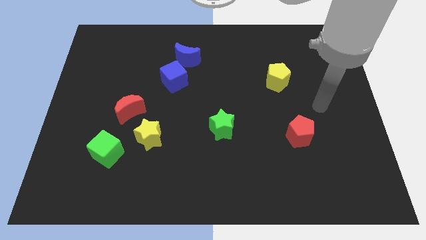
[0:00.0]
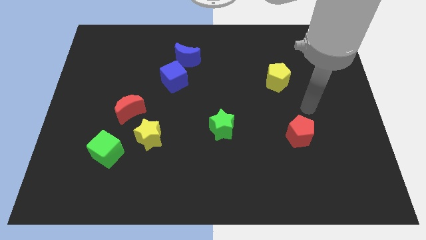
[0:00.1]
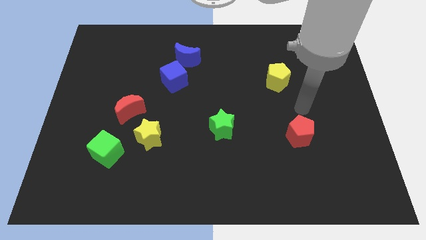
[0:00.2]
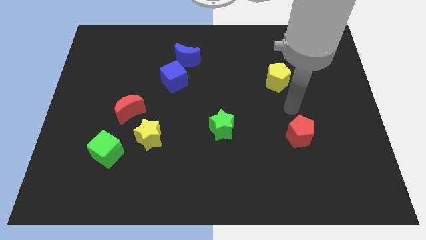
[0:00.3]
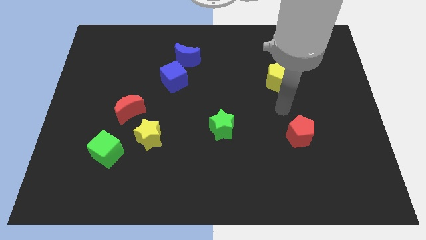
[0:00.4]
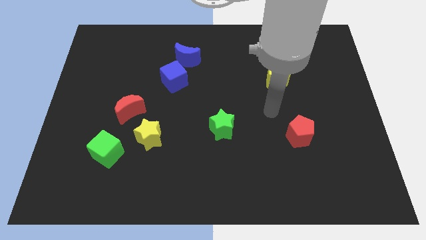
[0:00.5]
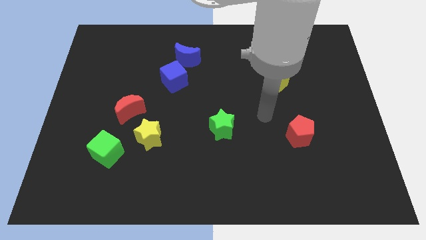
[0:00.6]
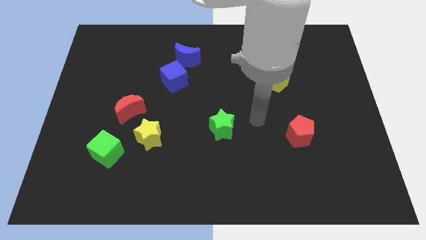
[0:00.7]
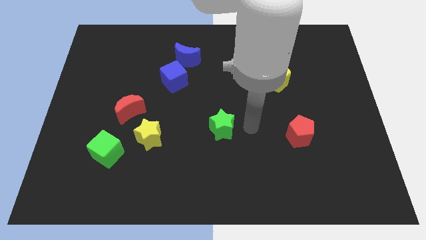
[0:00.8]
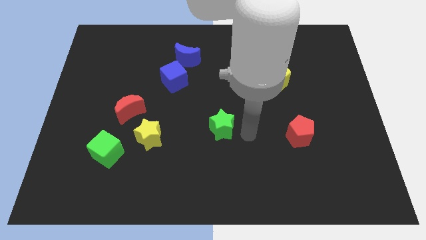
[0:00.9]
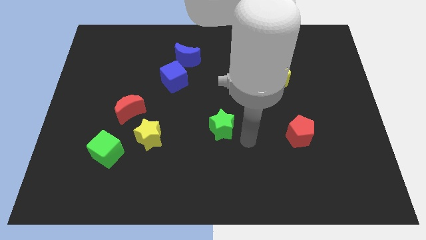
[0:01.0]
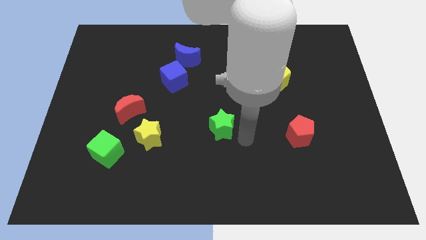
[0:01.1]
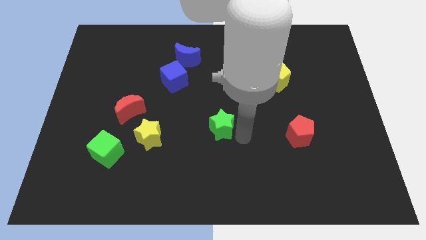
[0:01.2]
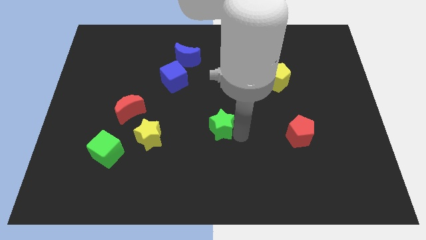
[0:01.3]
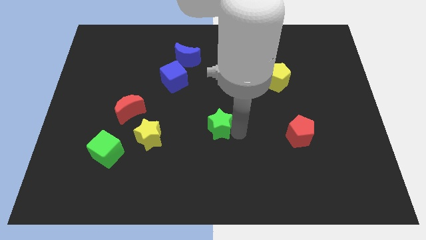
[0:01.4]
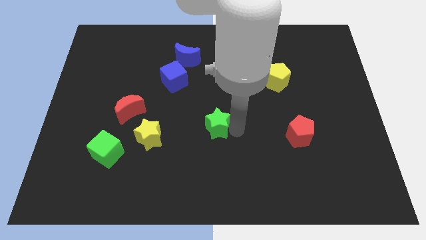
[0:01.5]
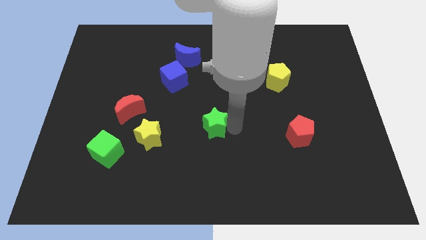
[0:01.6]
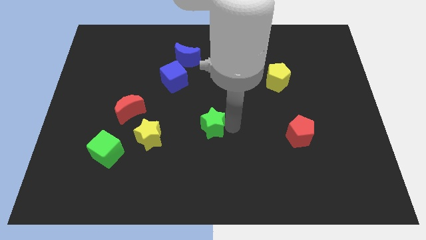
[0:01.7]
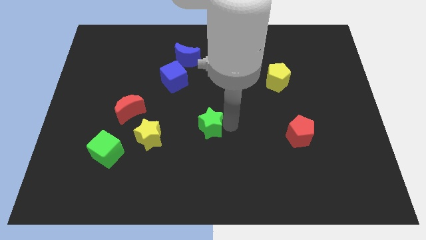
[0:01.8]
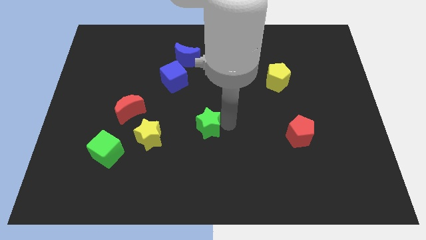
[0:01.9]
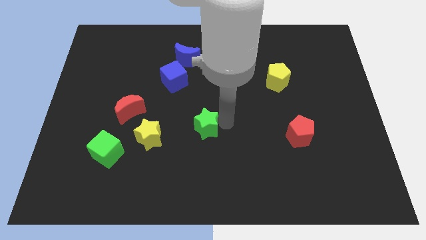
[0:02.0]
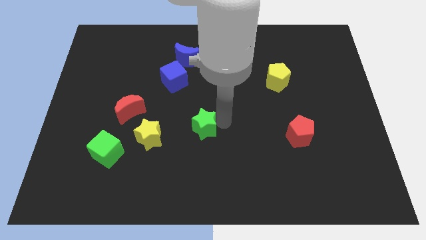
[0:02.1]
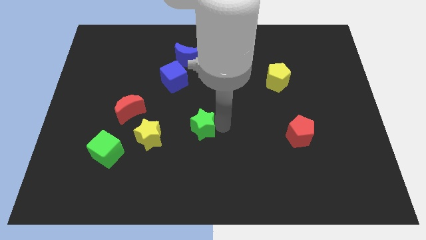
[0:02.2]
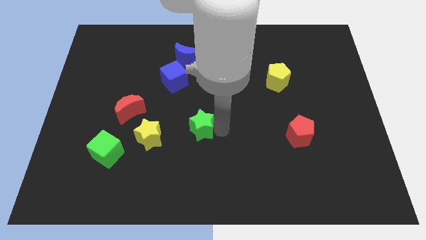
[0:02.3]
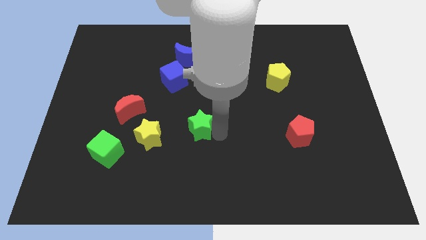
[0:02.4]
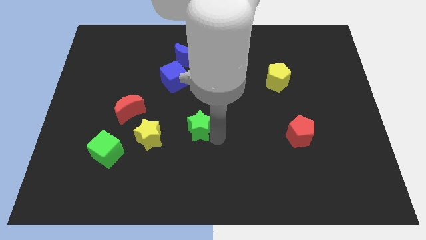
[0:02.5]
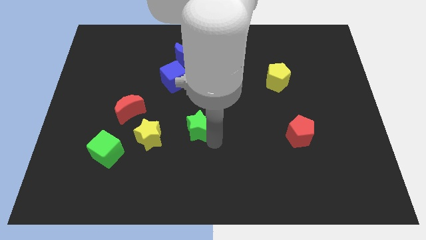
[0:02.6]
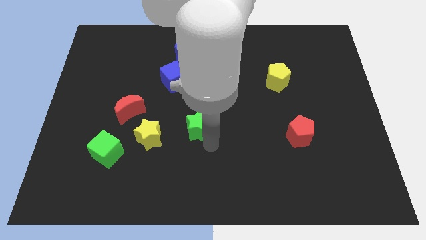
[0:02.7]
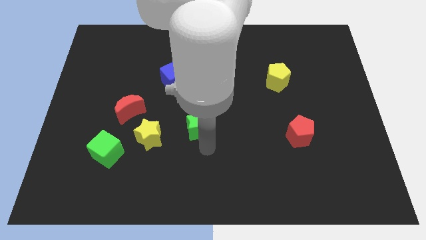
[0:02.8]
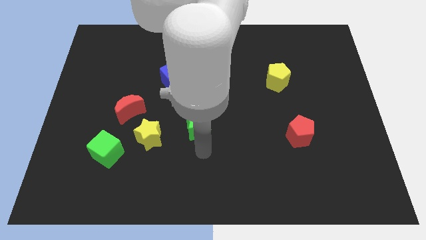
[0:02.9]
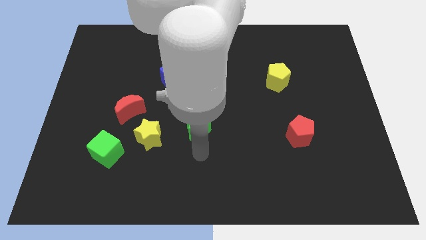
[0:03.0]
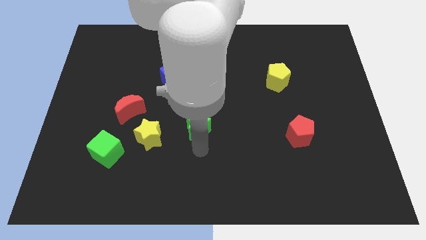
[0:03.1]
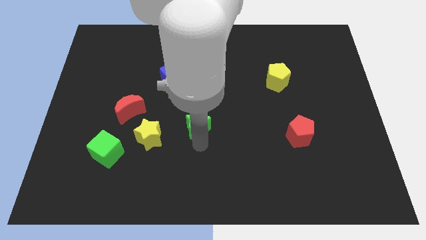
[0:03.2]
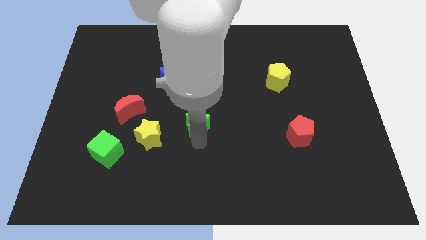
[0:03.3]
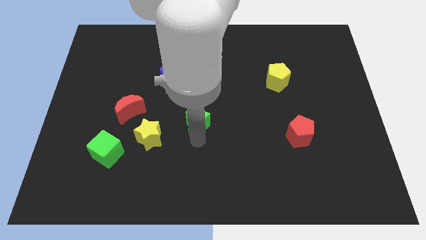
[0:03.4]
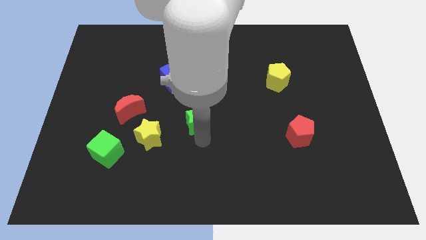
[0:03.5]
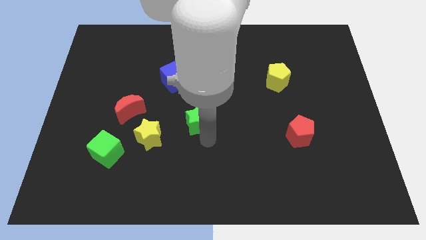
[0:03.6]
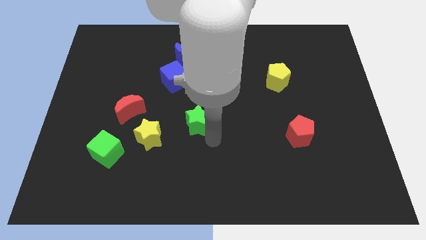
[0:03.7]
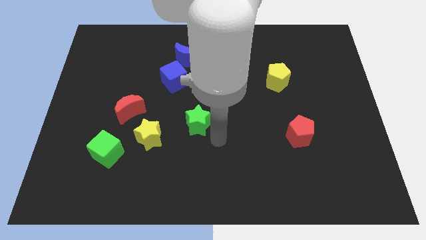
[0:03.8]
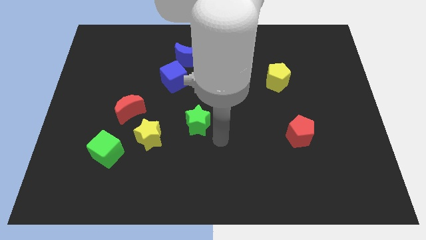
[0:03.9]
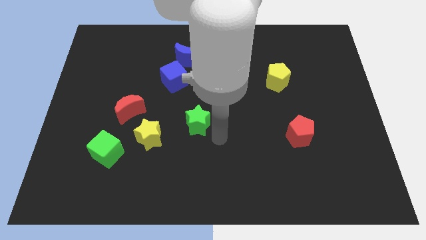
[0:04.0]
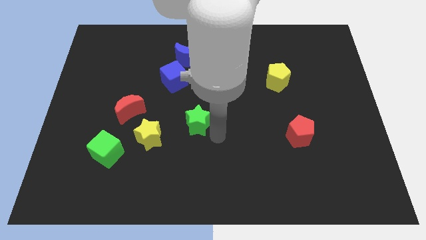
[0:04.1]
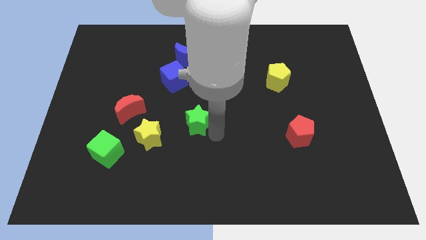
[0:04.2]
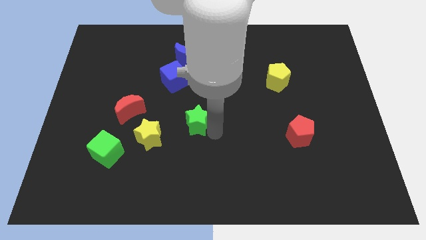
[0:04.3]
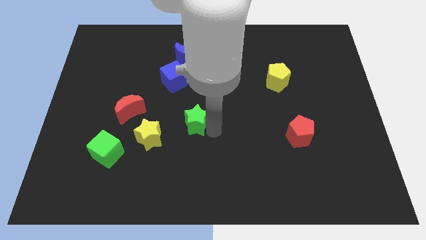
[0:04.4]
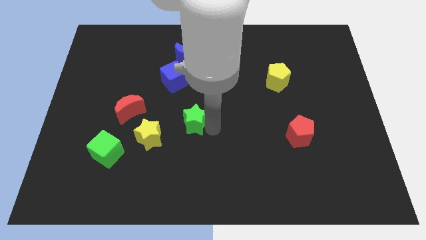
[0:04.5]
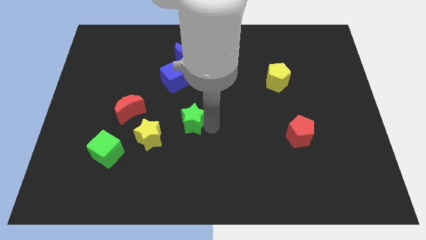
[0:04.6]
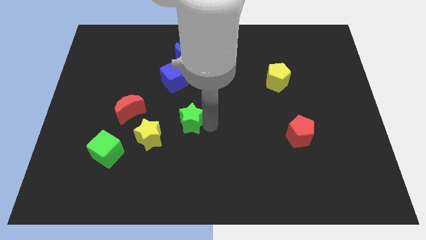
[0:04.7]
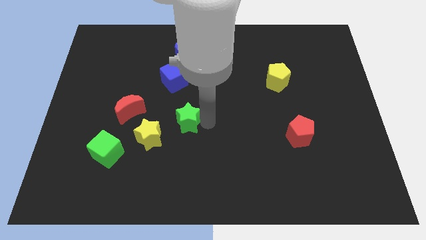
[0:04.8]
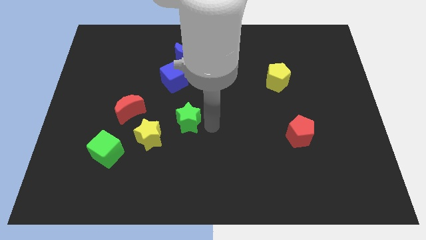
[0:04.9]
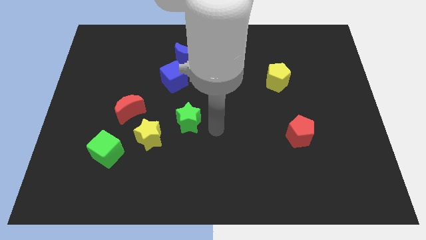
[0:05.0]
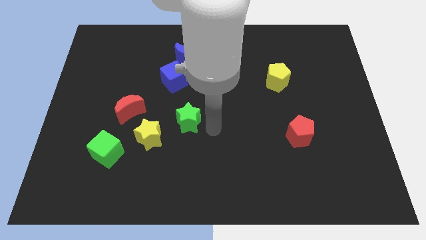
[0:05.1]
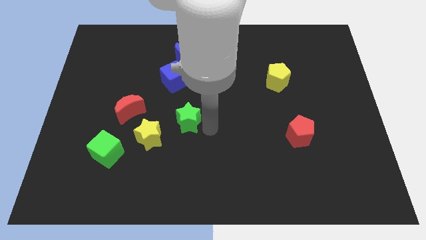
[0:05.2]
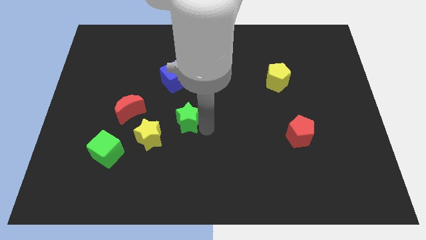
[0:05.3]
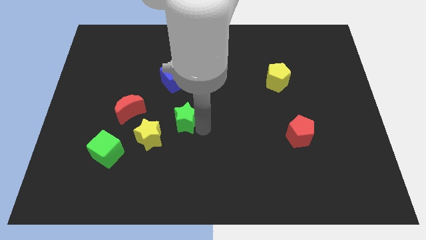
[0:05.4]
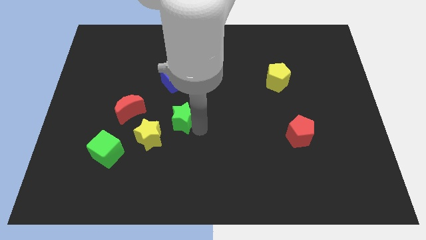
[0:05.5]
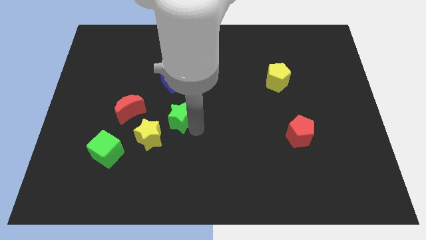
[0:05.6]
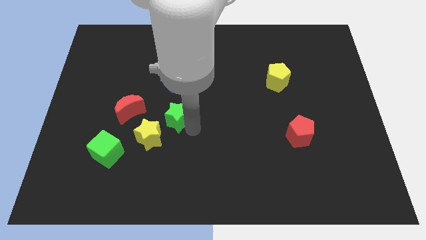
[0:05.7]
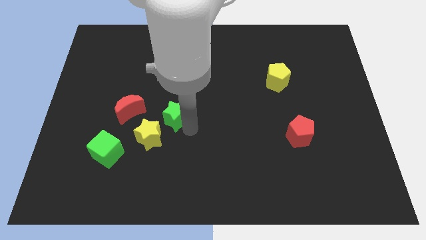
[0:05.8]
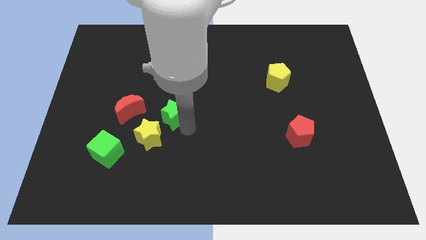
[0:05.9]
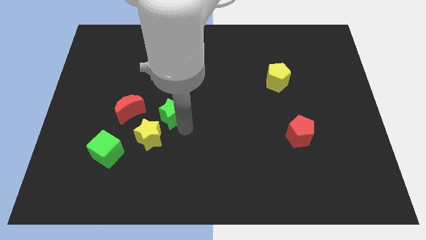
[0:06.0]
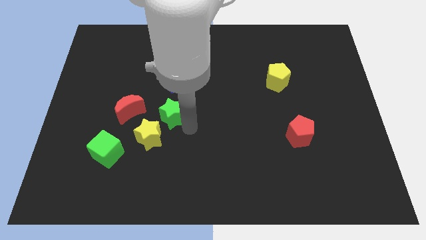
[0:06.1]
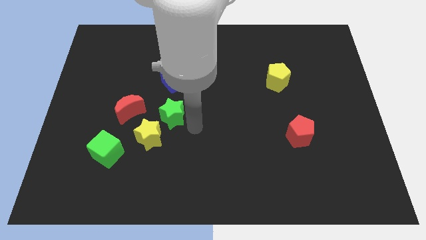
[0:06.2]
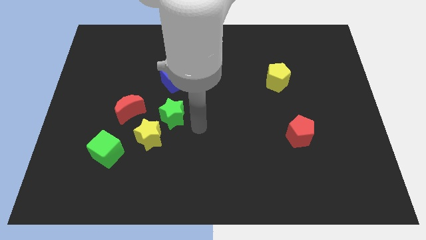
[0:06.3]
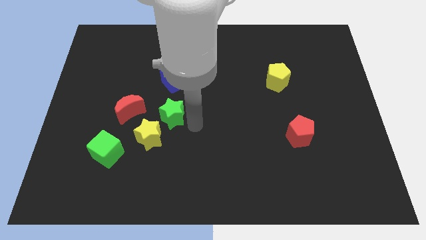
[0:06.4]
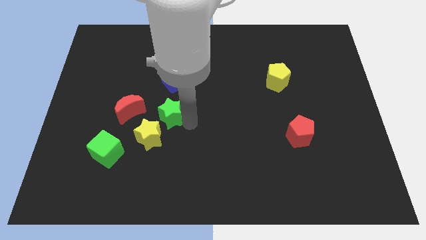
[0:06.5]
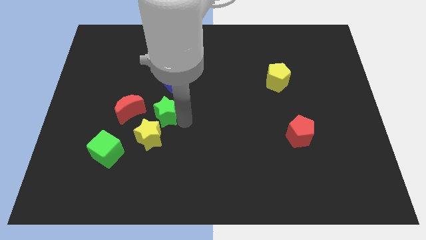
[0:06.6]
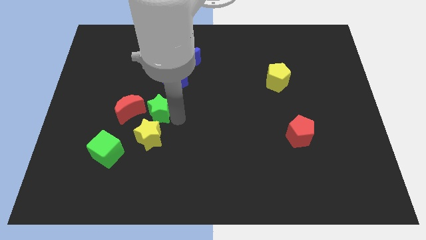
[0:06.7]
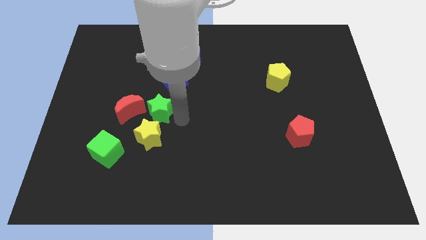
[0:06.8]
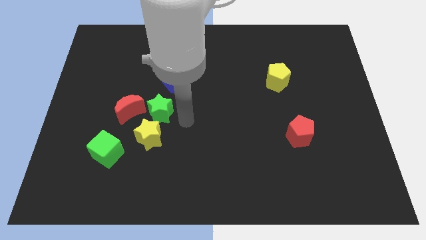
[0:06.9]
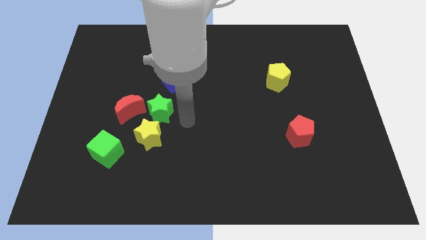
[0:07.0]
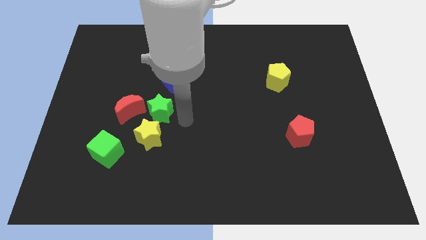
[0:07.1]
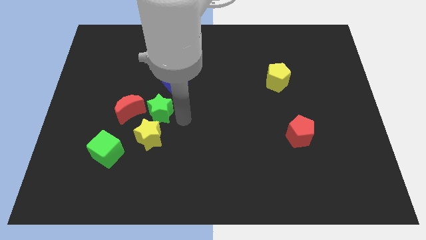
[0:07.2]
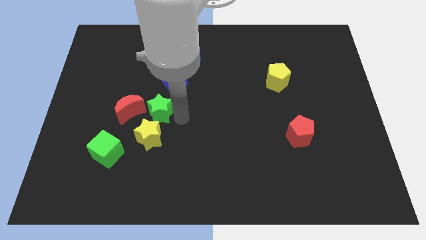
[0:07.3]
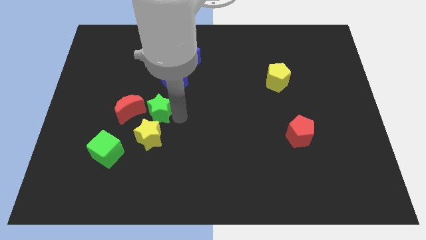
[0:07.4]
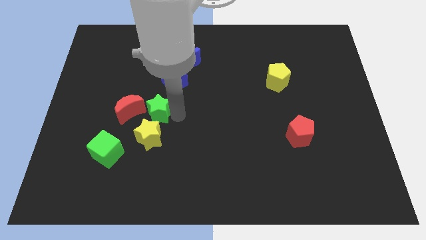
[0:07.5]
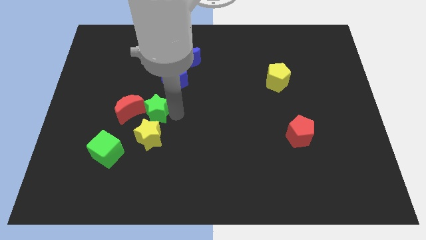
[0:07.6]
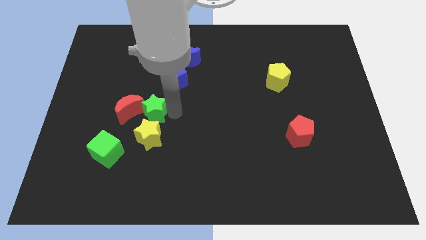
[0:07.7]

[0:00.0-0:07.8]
push the green star close to the red moon
